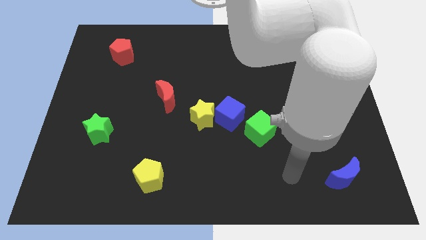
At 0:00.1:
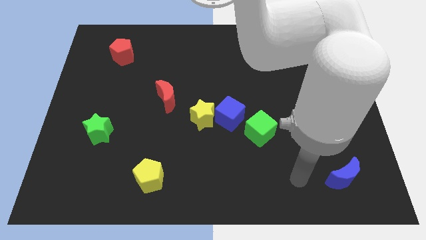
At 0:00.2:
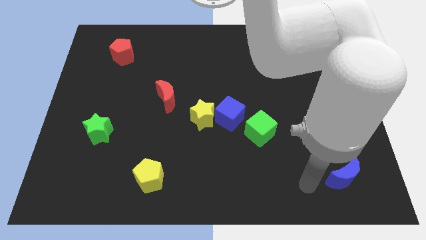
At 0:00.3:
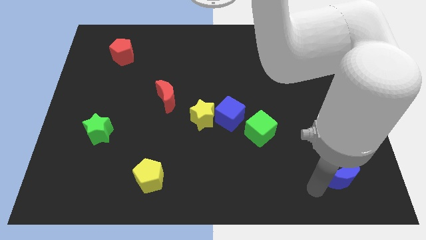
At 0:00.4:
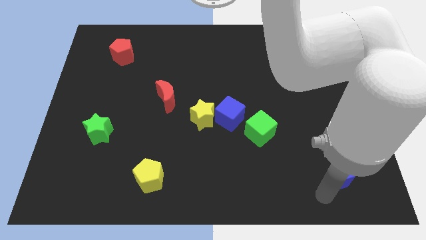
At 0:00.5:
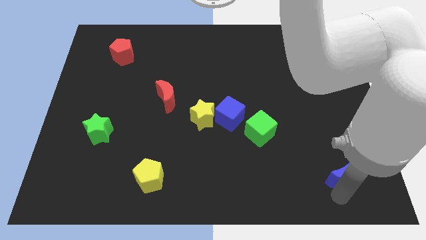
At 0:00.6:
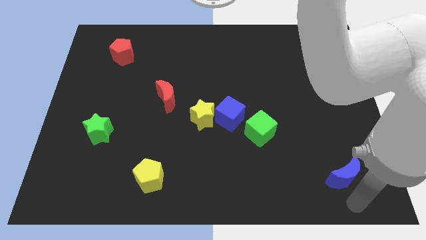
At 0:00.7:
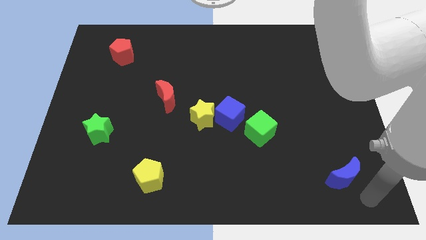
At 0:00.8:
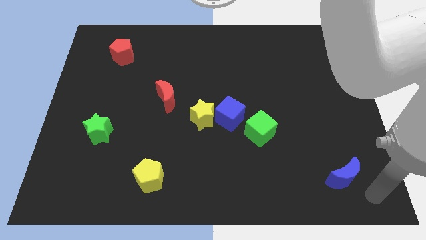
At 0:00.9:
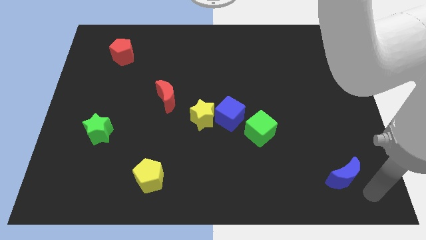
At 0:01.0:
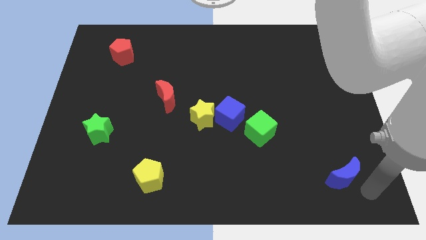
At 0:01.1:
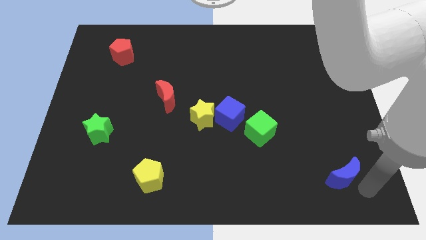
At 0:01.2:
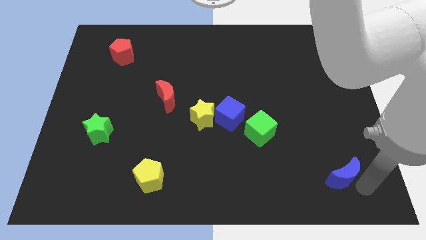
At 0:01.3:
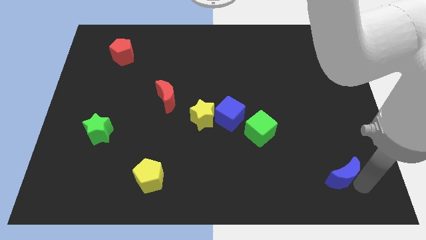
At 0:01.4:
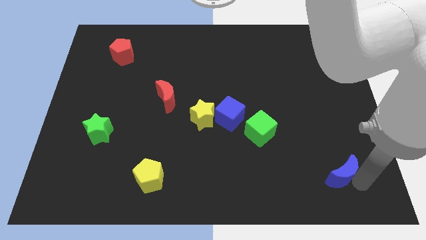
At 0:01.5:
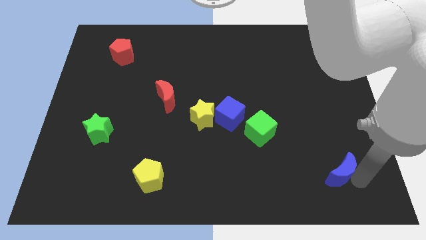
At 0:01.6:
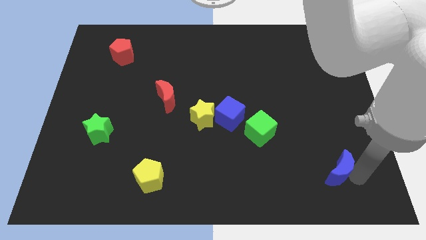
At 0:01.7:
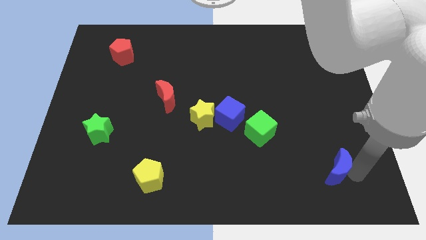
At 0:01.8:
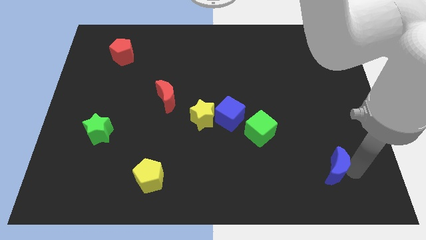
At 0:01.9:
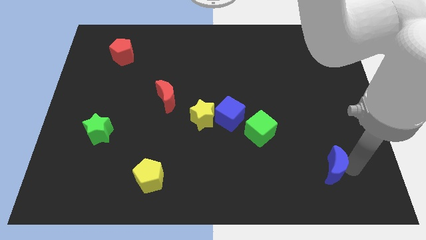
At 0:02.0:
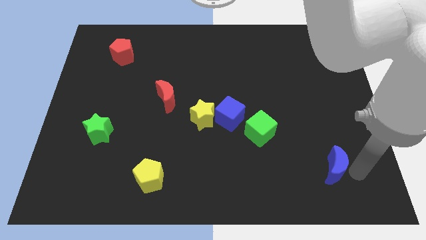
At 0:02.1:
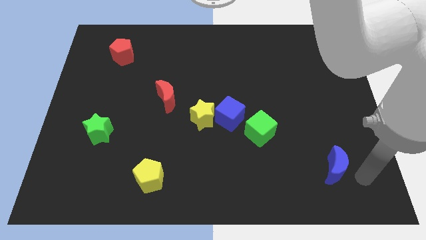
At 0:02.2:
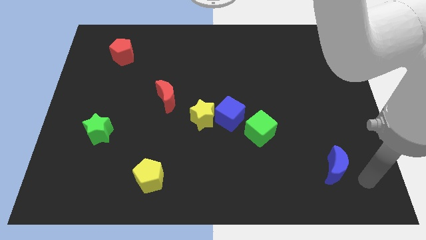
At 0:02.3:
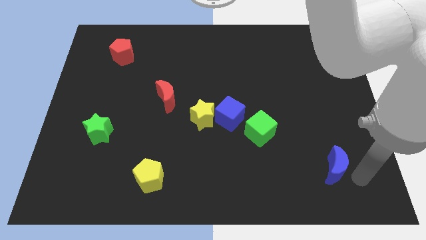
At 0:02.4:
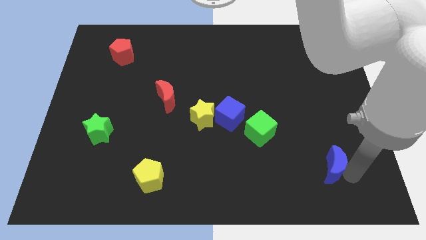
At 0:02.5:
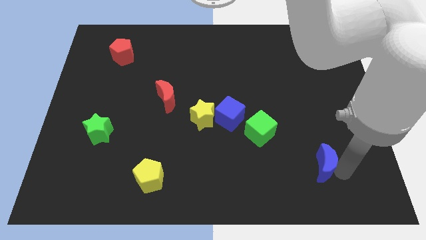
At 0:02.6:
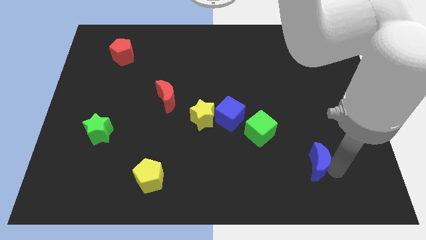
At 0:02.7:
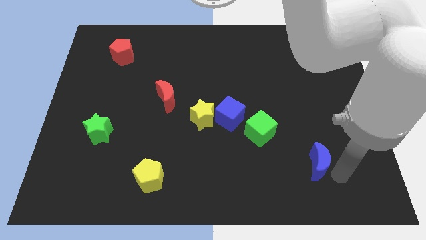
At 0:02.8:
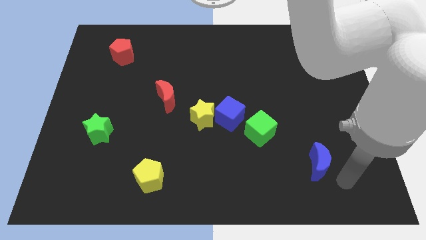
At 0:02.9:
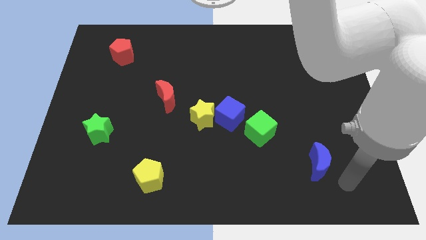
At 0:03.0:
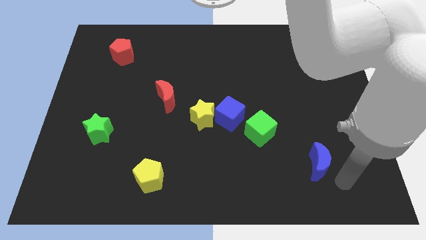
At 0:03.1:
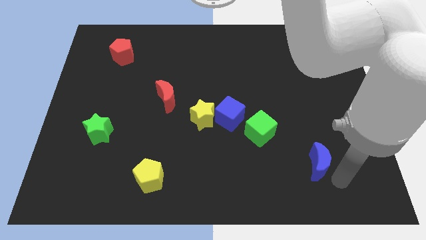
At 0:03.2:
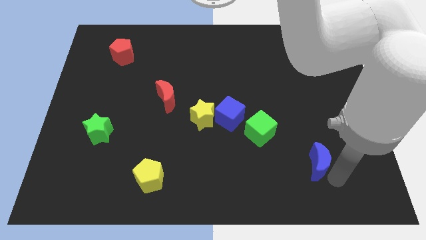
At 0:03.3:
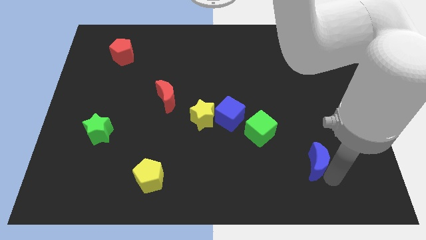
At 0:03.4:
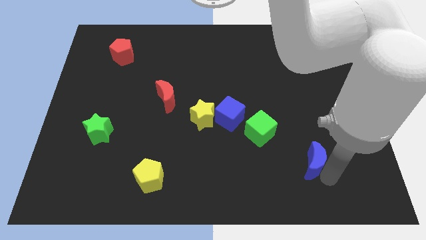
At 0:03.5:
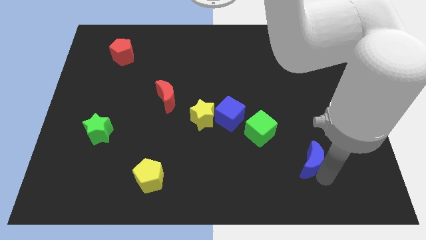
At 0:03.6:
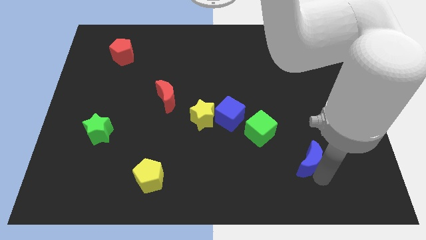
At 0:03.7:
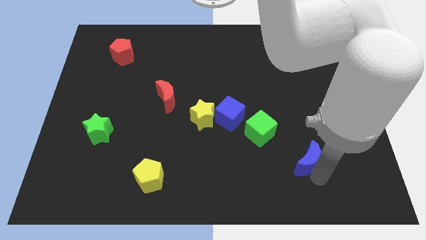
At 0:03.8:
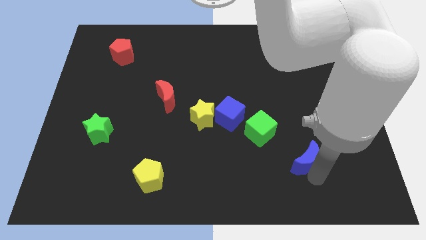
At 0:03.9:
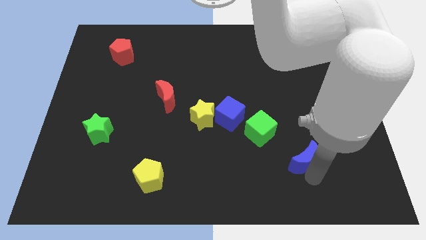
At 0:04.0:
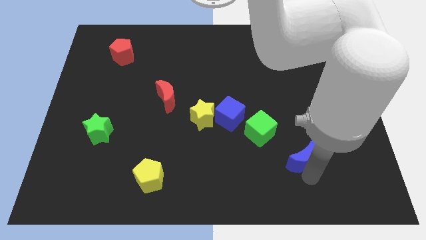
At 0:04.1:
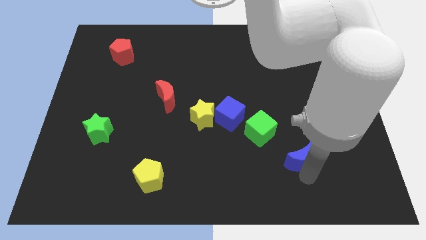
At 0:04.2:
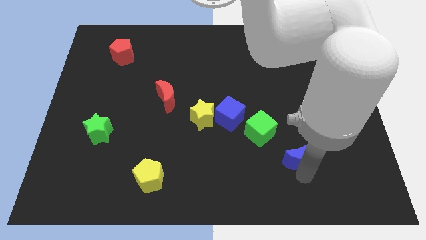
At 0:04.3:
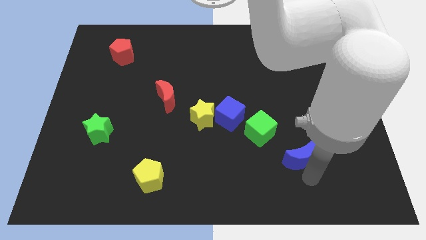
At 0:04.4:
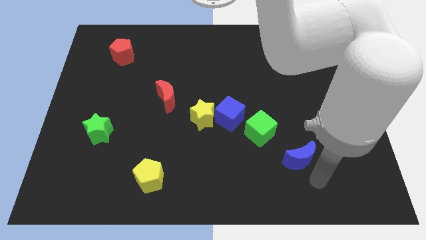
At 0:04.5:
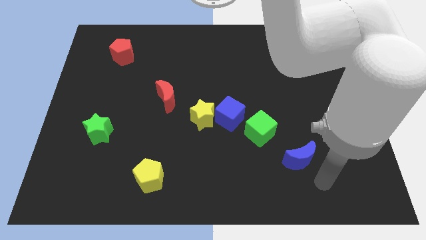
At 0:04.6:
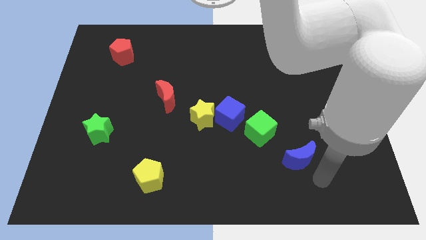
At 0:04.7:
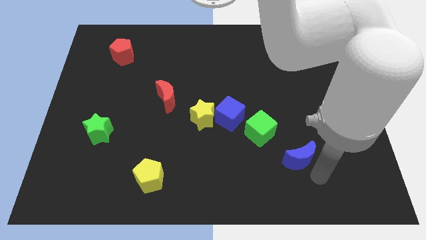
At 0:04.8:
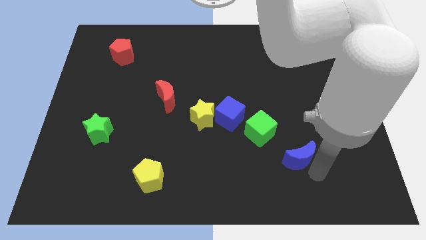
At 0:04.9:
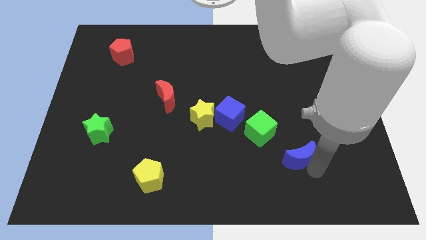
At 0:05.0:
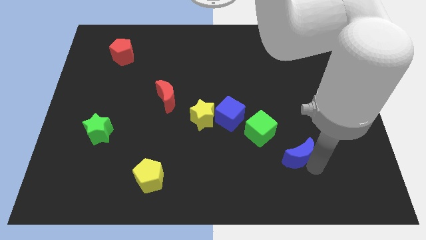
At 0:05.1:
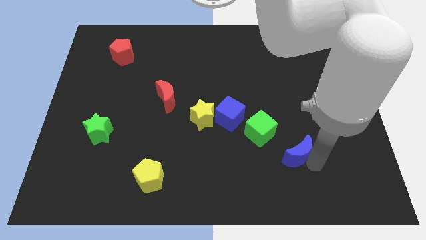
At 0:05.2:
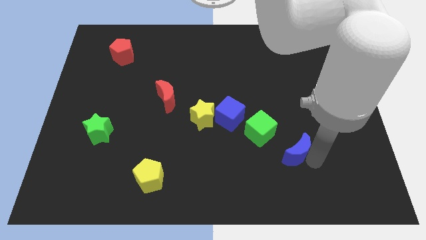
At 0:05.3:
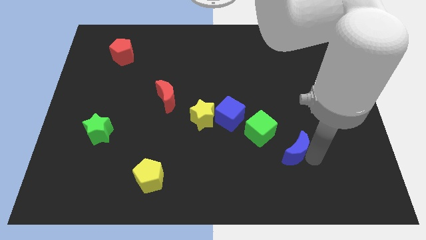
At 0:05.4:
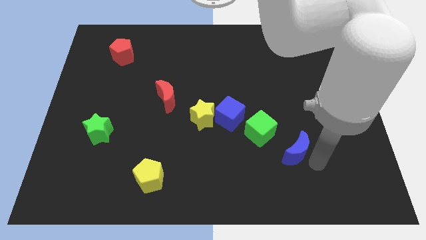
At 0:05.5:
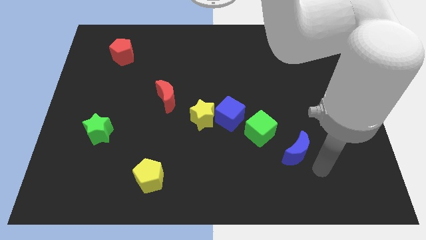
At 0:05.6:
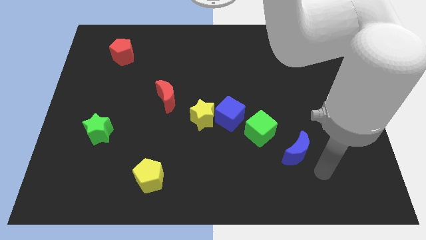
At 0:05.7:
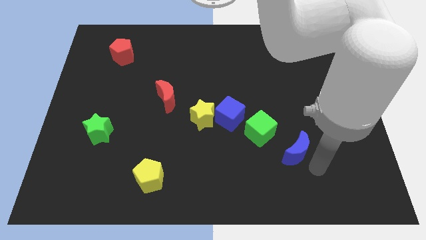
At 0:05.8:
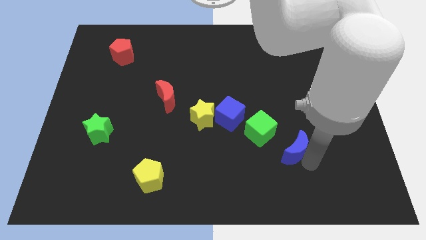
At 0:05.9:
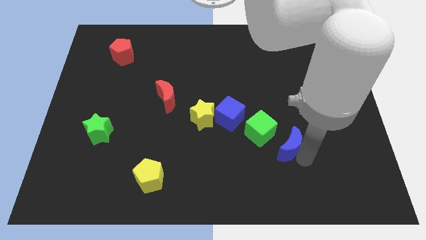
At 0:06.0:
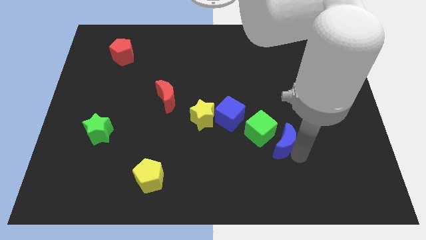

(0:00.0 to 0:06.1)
slide the blue moon to the green cube
